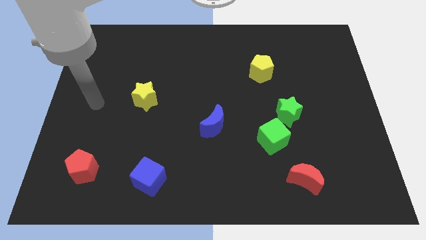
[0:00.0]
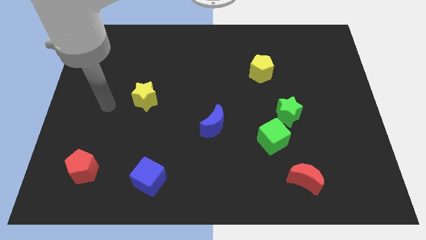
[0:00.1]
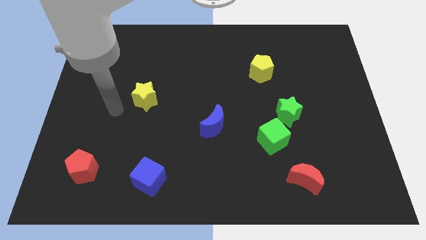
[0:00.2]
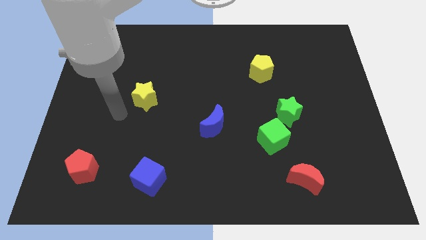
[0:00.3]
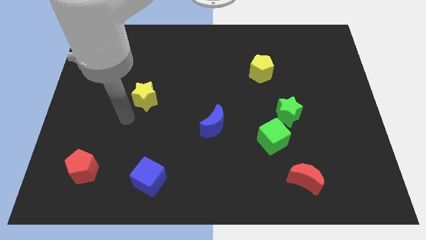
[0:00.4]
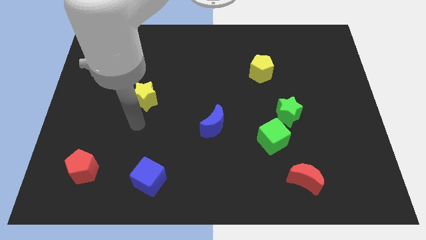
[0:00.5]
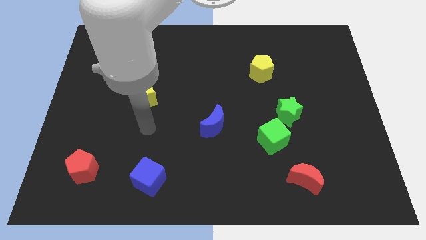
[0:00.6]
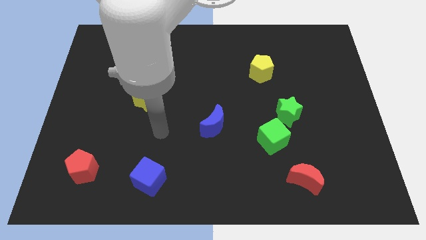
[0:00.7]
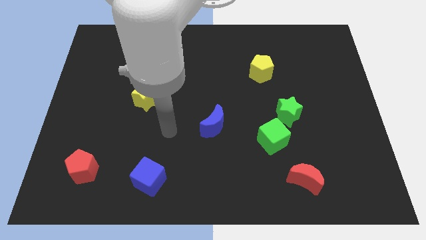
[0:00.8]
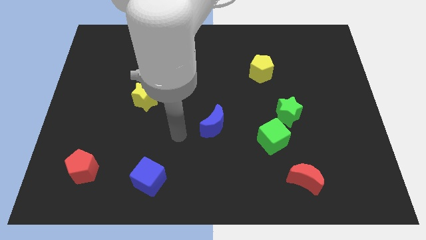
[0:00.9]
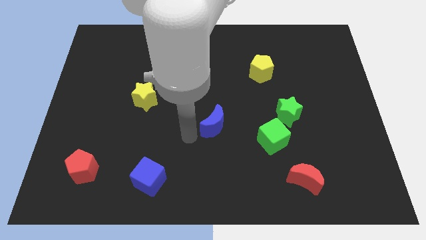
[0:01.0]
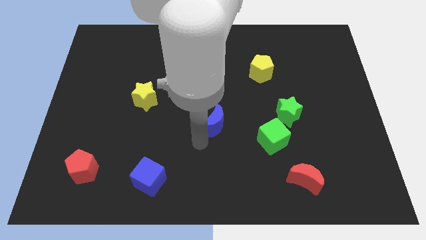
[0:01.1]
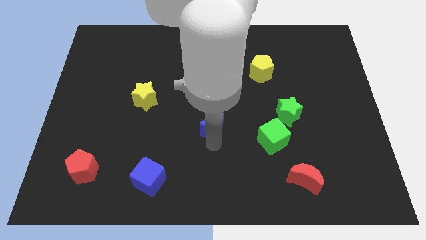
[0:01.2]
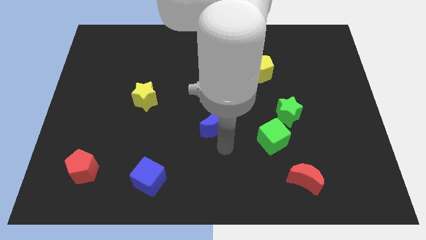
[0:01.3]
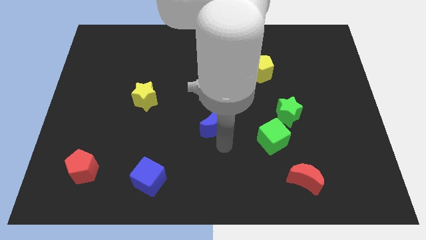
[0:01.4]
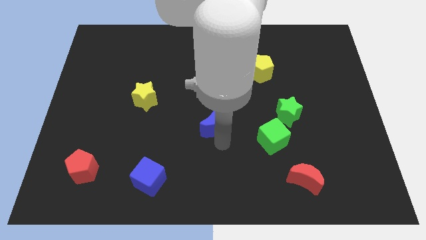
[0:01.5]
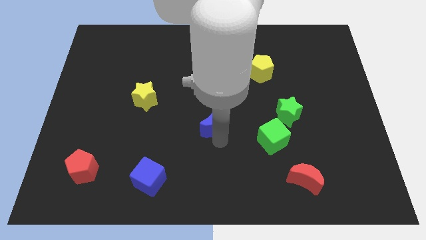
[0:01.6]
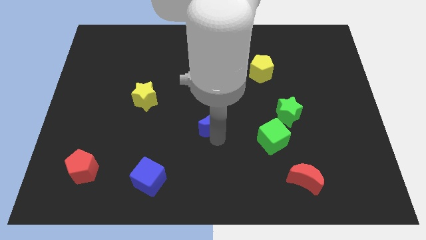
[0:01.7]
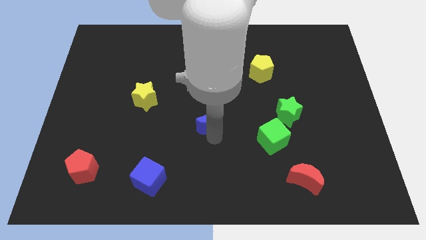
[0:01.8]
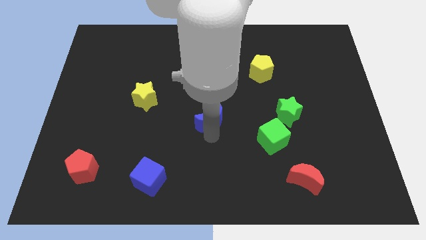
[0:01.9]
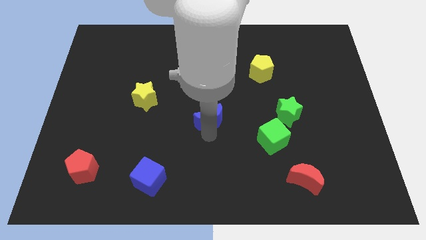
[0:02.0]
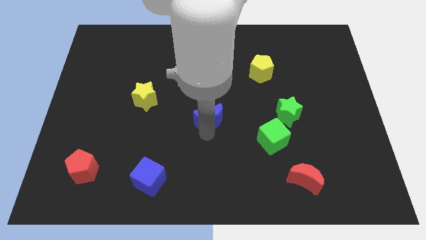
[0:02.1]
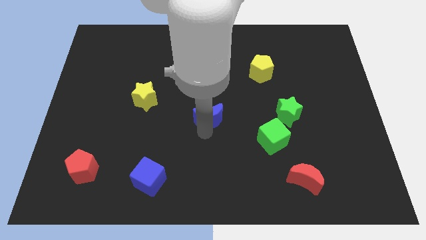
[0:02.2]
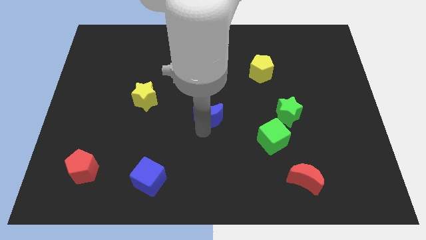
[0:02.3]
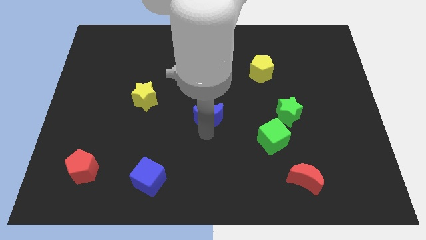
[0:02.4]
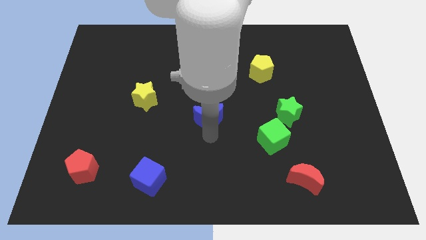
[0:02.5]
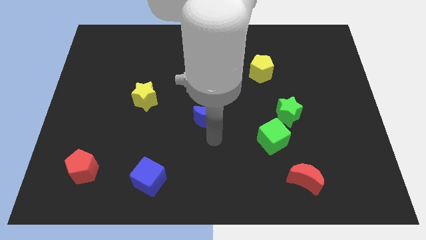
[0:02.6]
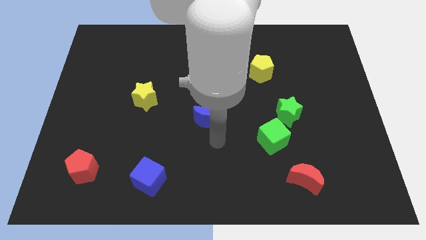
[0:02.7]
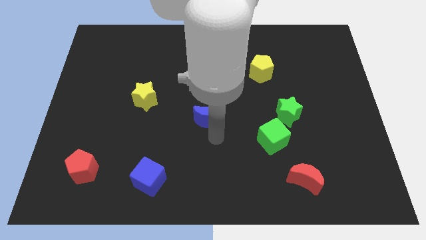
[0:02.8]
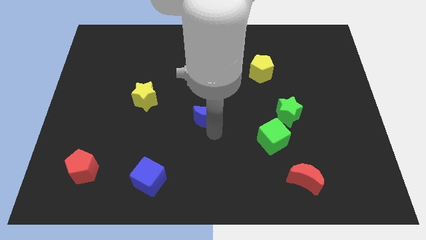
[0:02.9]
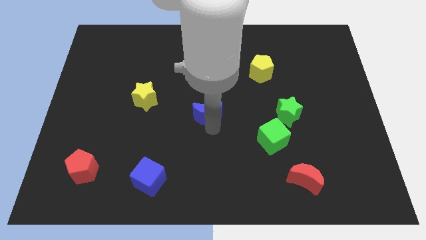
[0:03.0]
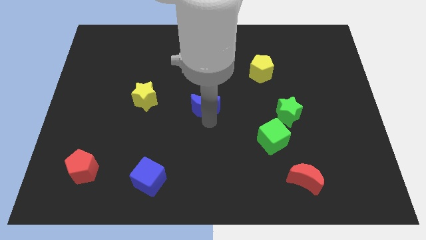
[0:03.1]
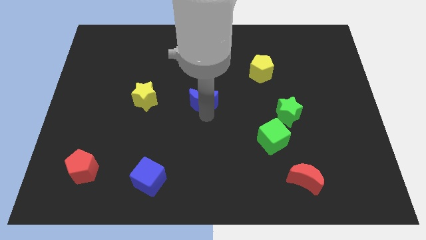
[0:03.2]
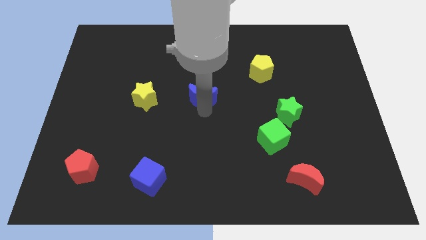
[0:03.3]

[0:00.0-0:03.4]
push the blue moon up slightly

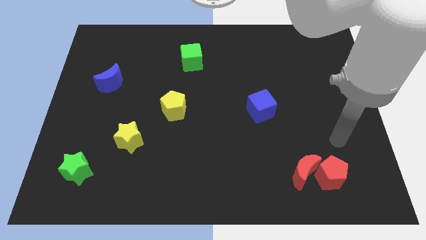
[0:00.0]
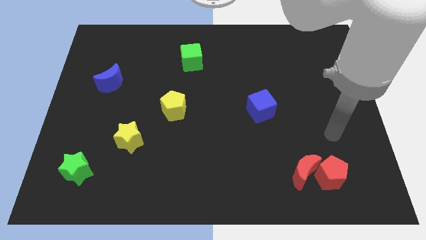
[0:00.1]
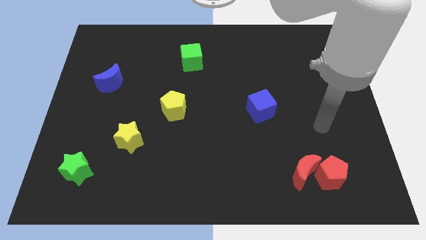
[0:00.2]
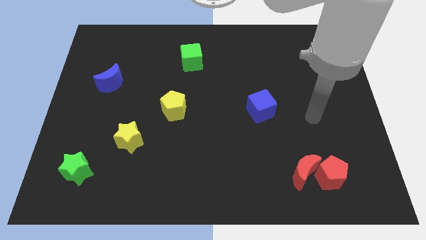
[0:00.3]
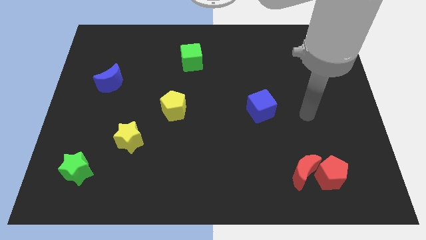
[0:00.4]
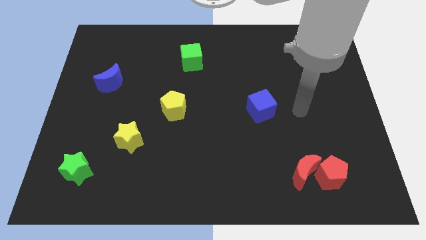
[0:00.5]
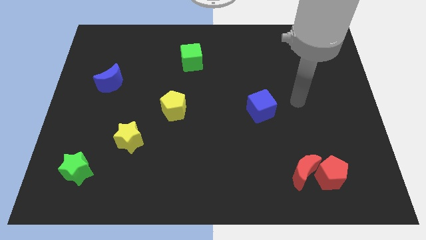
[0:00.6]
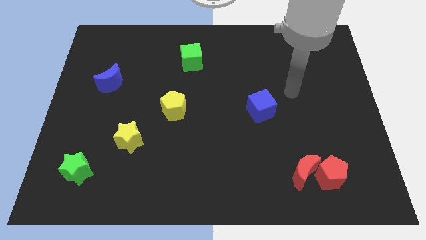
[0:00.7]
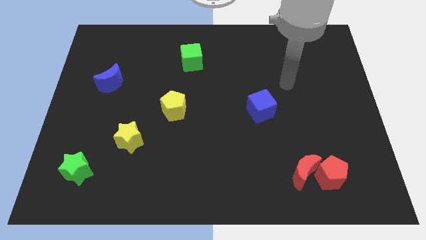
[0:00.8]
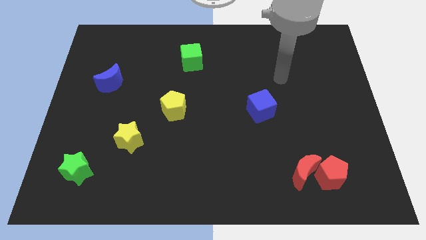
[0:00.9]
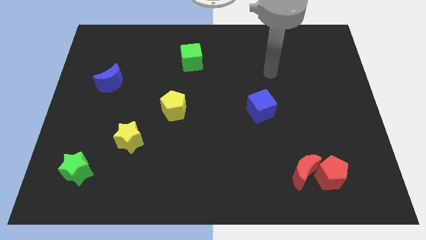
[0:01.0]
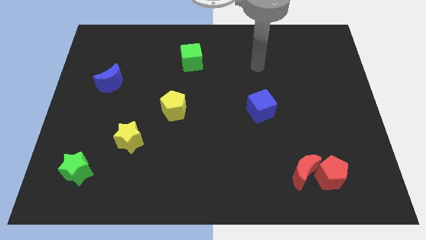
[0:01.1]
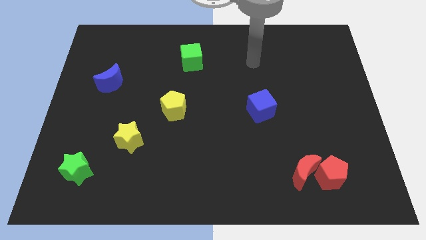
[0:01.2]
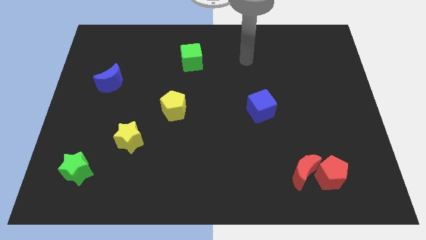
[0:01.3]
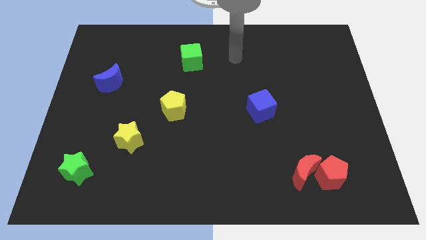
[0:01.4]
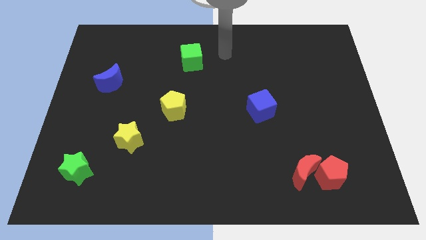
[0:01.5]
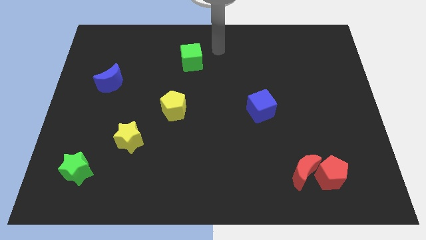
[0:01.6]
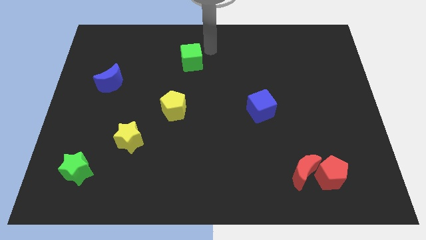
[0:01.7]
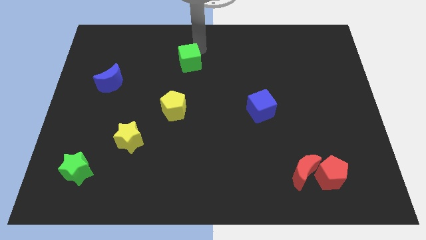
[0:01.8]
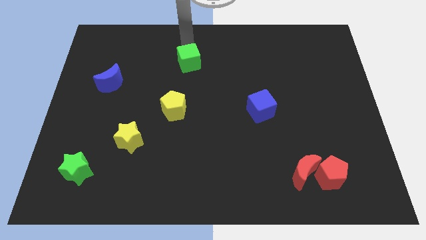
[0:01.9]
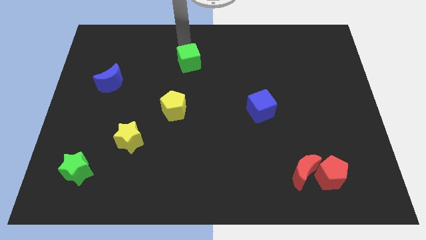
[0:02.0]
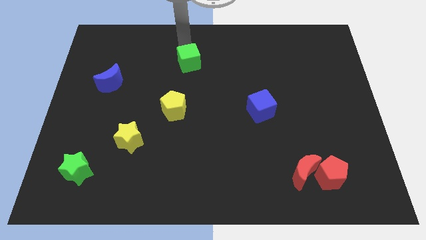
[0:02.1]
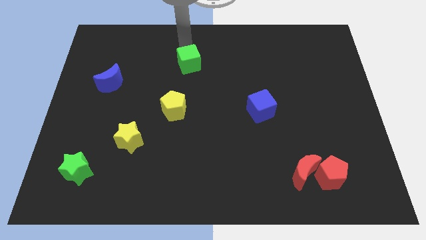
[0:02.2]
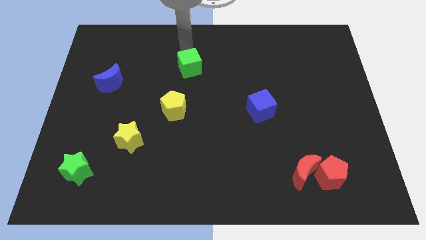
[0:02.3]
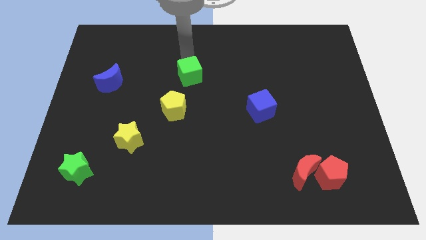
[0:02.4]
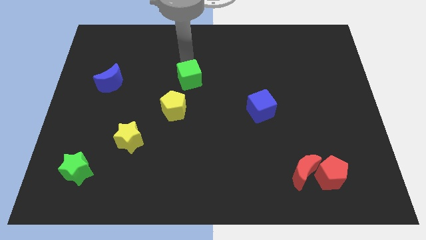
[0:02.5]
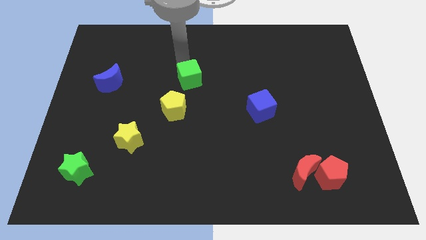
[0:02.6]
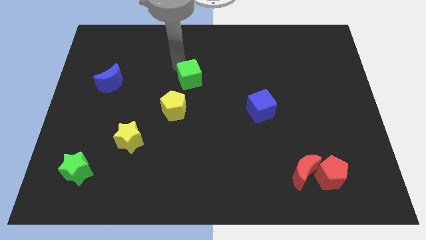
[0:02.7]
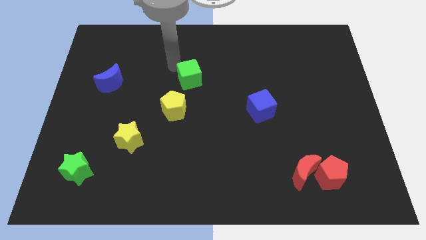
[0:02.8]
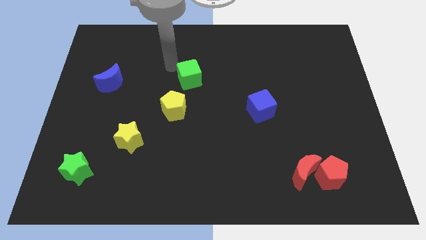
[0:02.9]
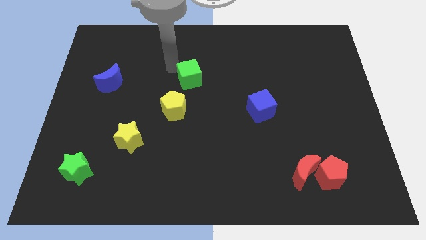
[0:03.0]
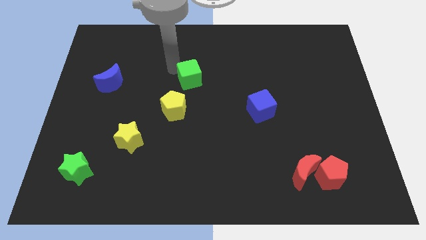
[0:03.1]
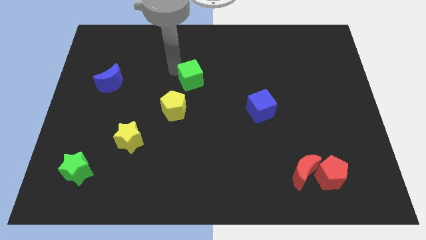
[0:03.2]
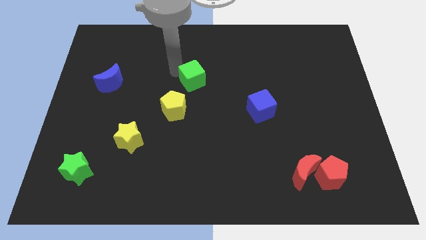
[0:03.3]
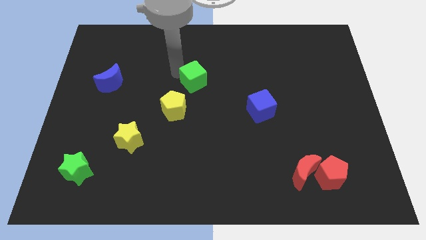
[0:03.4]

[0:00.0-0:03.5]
move the green cube downwards somewhat

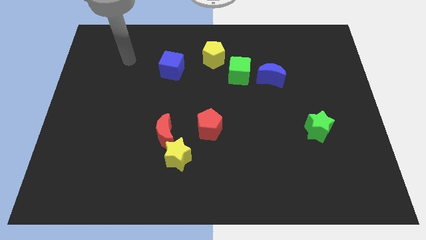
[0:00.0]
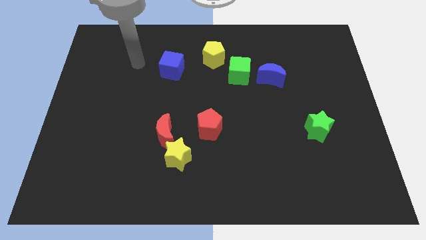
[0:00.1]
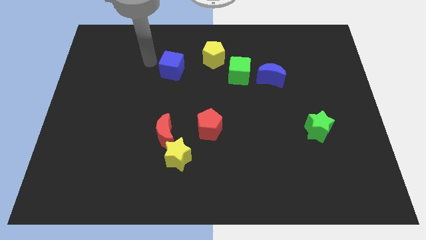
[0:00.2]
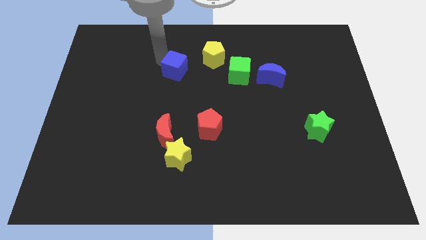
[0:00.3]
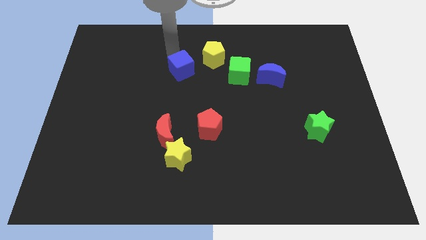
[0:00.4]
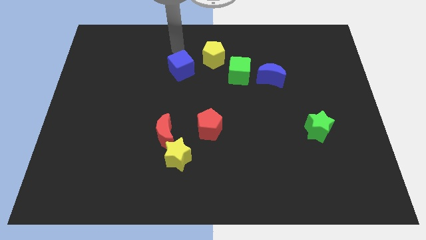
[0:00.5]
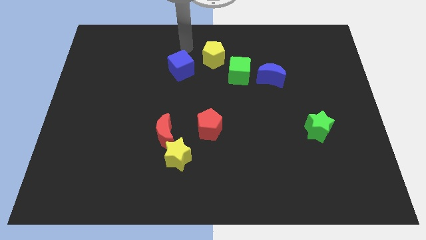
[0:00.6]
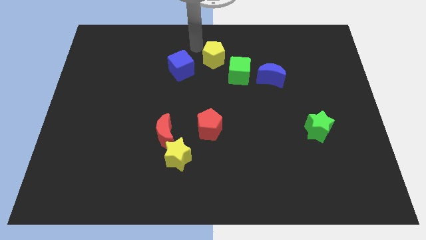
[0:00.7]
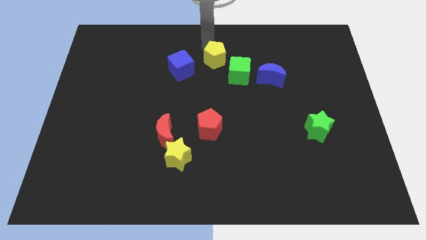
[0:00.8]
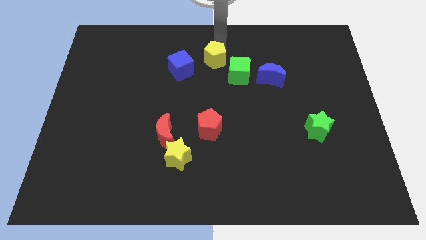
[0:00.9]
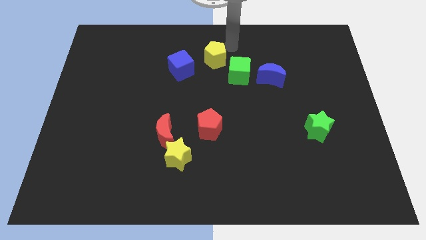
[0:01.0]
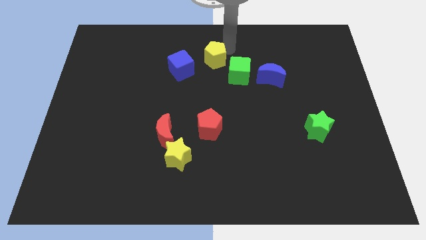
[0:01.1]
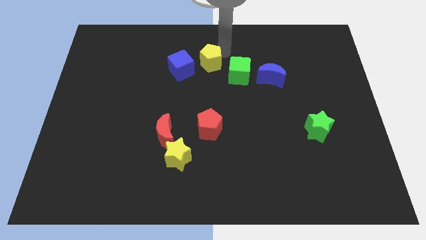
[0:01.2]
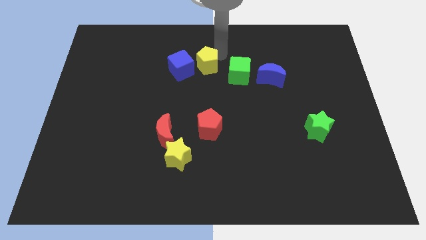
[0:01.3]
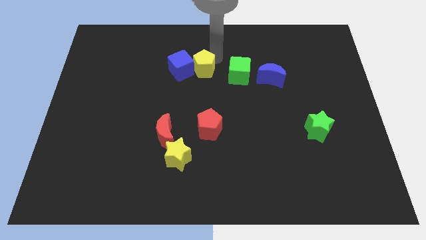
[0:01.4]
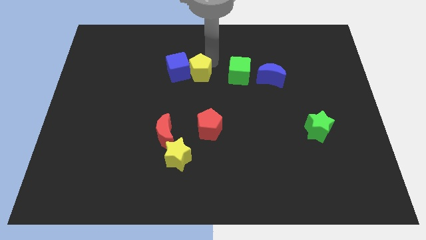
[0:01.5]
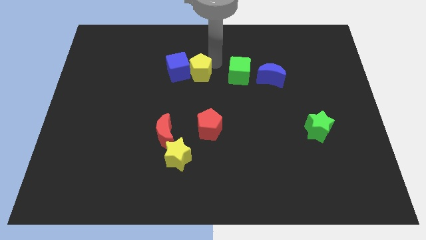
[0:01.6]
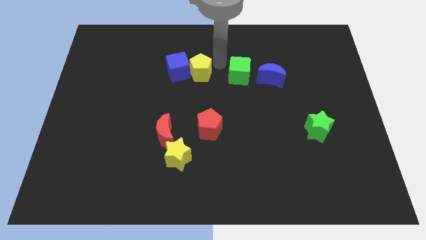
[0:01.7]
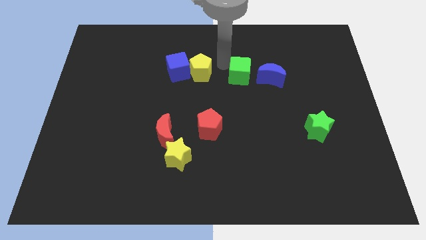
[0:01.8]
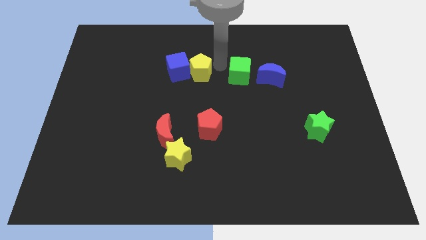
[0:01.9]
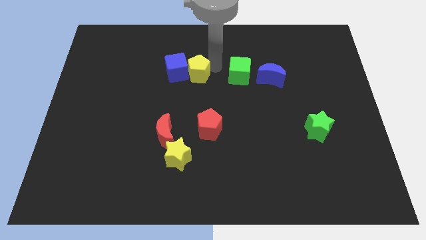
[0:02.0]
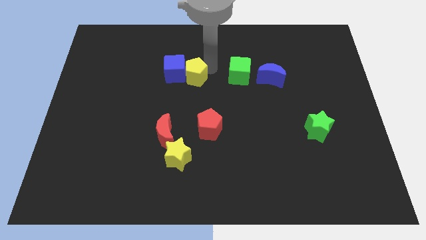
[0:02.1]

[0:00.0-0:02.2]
slightly slide the yellow pentagon down and then to the left
